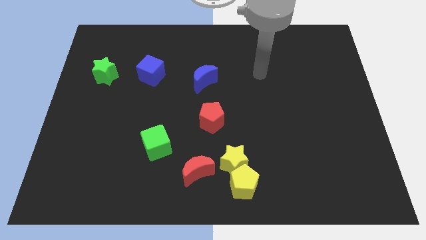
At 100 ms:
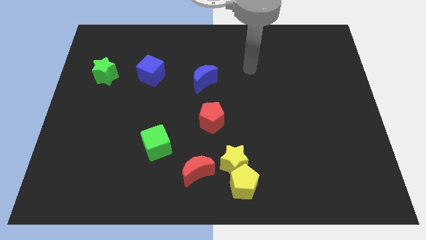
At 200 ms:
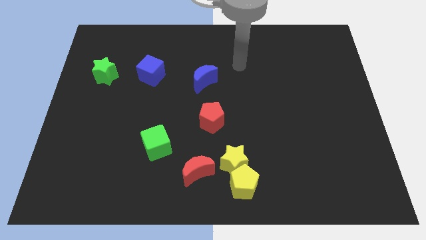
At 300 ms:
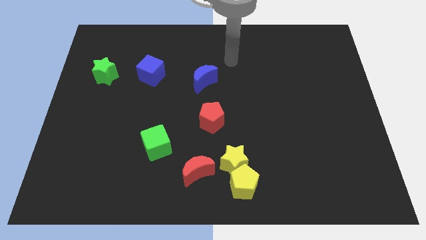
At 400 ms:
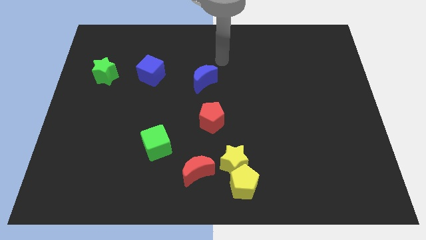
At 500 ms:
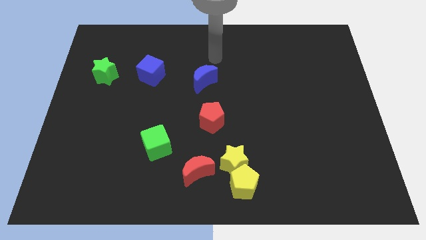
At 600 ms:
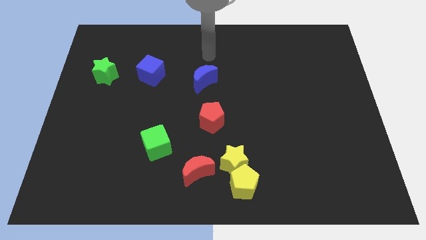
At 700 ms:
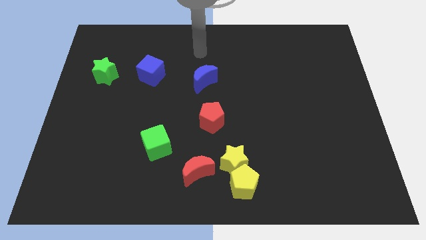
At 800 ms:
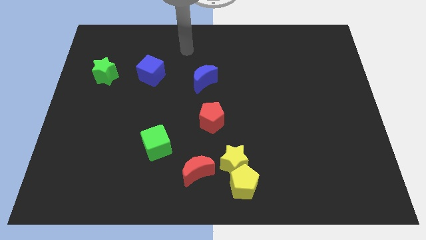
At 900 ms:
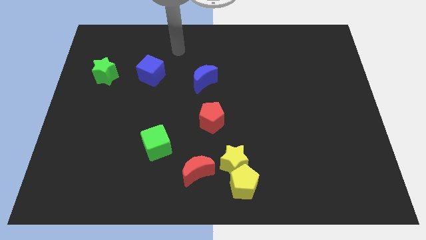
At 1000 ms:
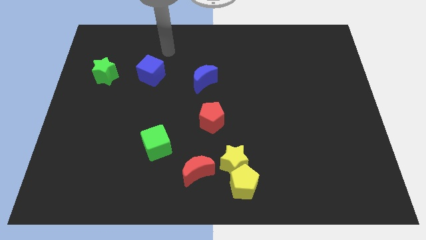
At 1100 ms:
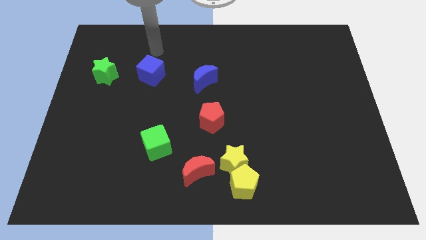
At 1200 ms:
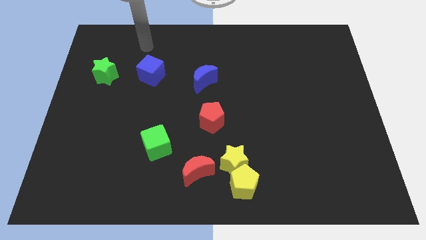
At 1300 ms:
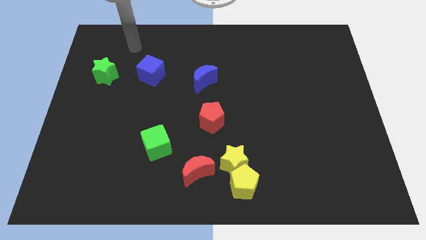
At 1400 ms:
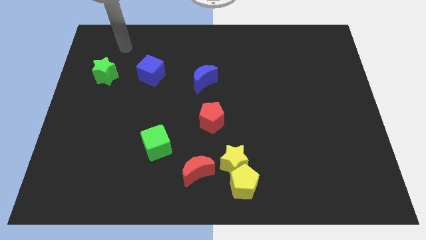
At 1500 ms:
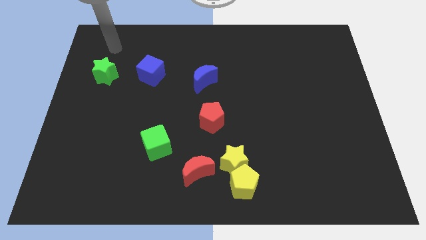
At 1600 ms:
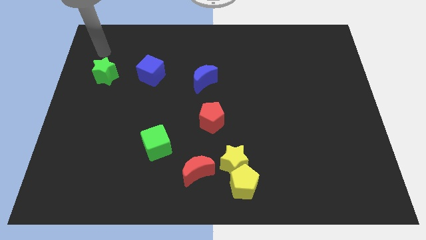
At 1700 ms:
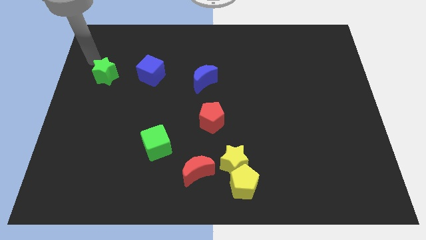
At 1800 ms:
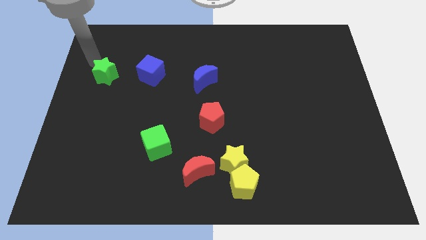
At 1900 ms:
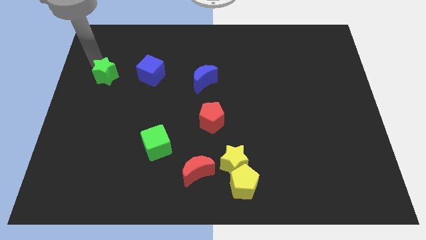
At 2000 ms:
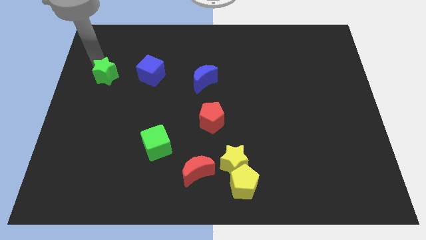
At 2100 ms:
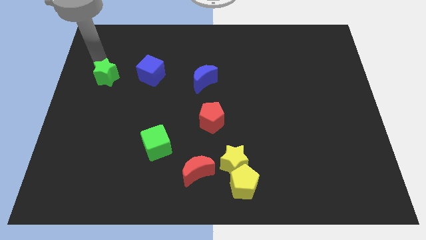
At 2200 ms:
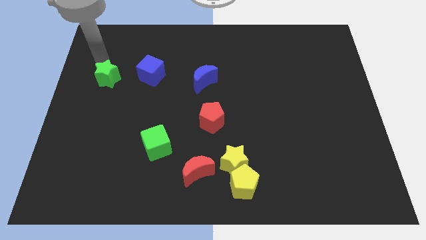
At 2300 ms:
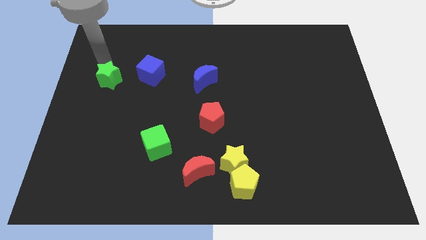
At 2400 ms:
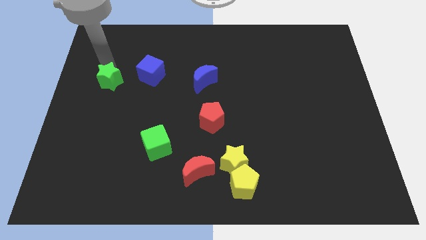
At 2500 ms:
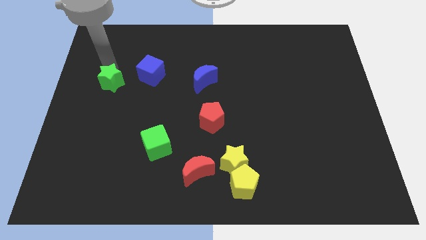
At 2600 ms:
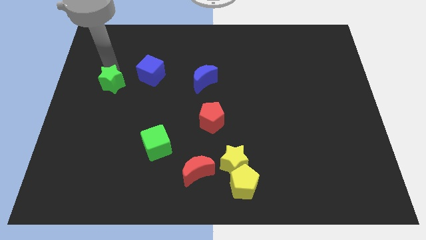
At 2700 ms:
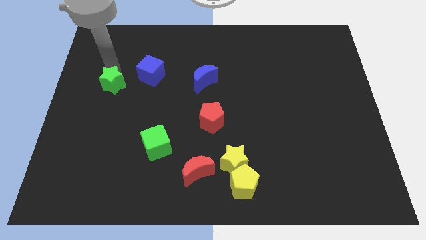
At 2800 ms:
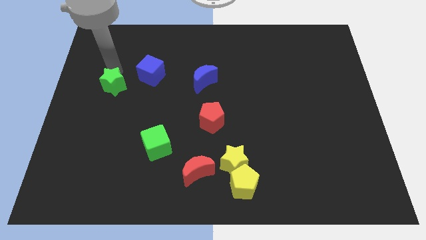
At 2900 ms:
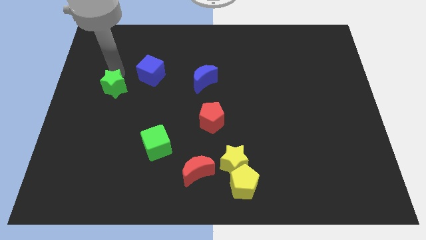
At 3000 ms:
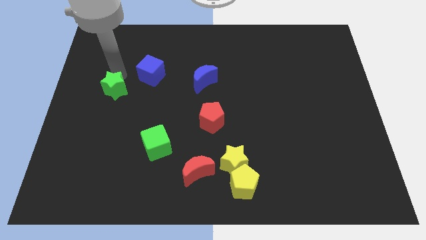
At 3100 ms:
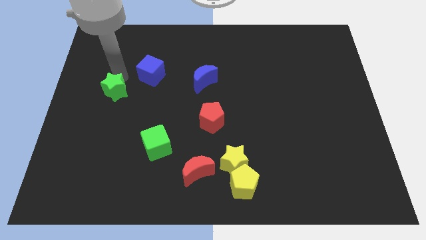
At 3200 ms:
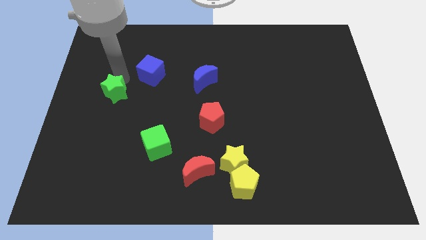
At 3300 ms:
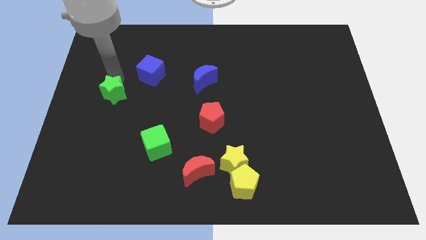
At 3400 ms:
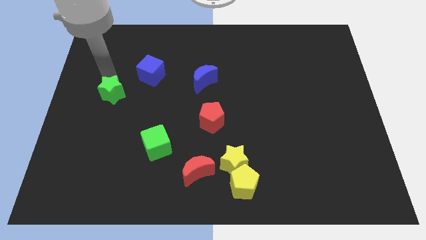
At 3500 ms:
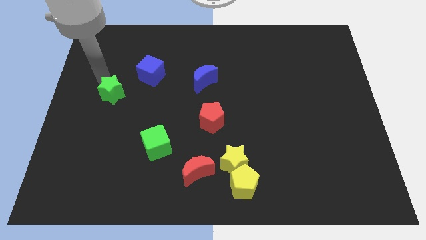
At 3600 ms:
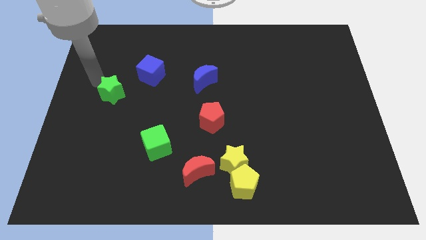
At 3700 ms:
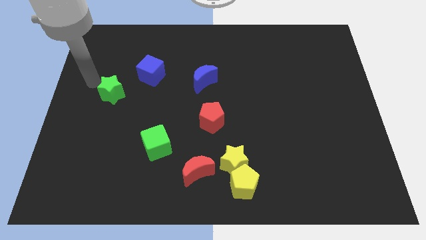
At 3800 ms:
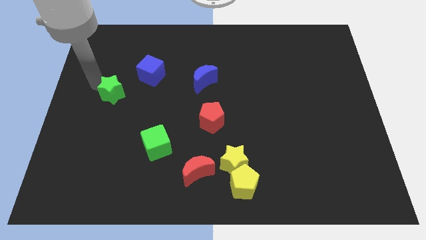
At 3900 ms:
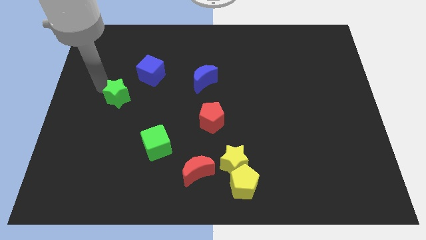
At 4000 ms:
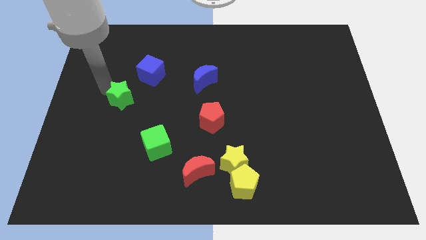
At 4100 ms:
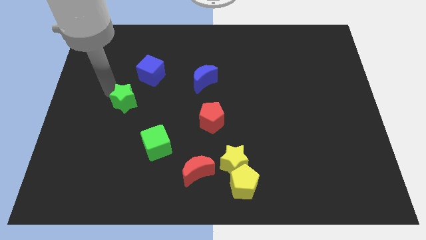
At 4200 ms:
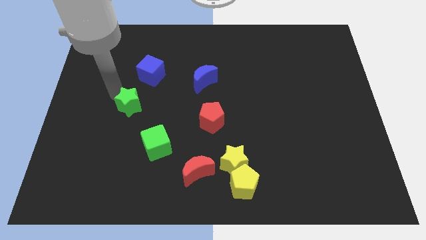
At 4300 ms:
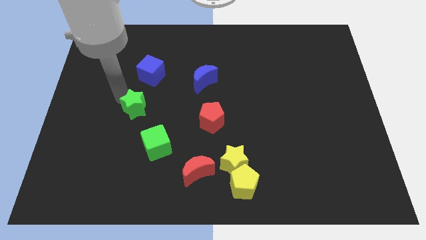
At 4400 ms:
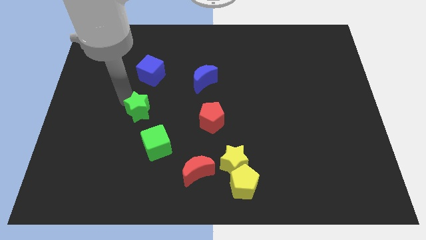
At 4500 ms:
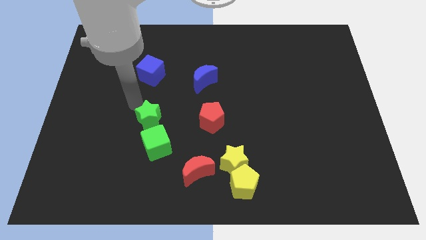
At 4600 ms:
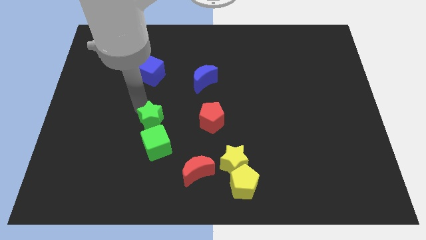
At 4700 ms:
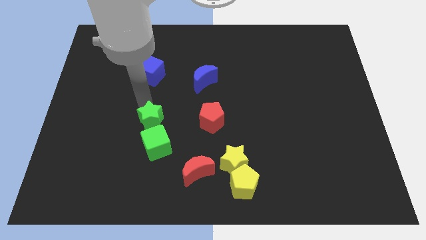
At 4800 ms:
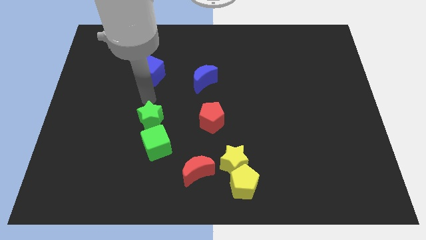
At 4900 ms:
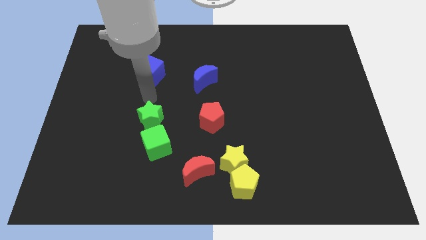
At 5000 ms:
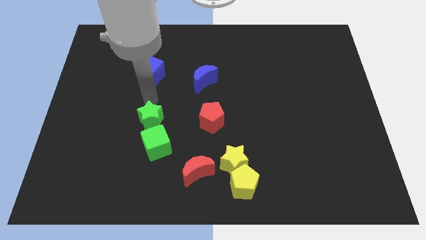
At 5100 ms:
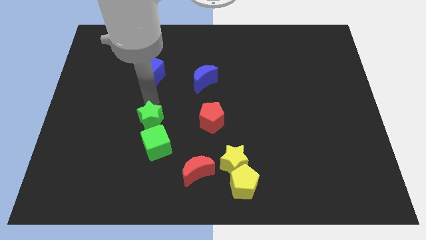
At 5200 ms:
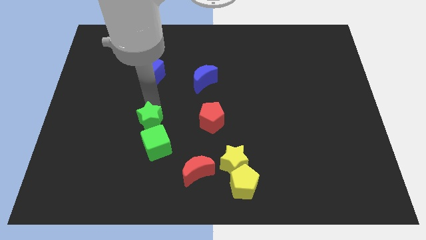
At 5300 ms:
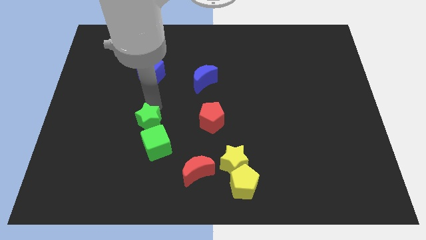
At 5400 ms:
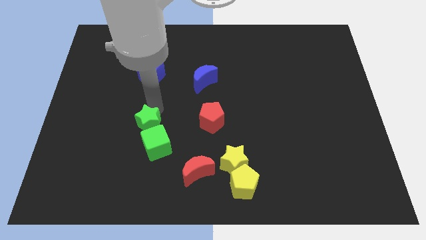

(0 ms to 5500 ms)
move the green star close to the green cube
